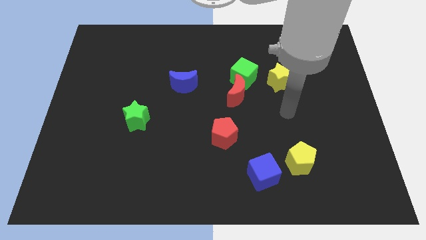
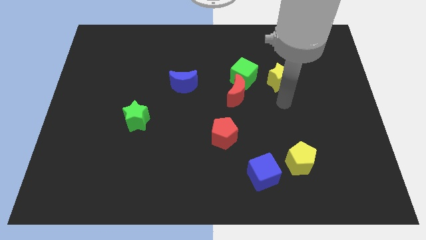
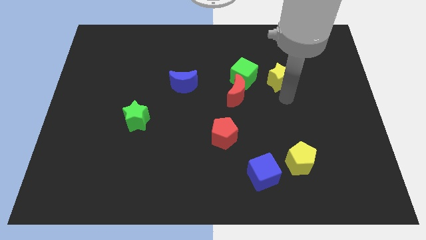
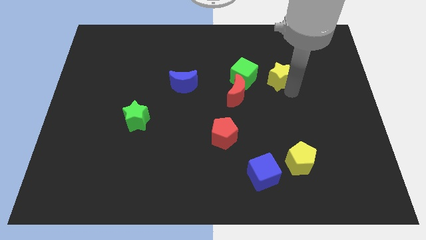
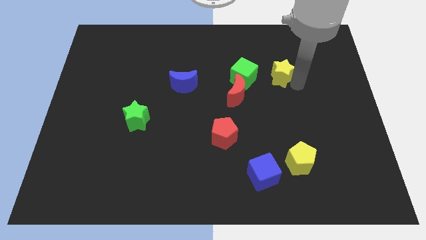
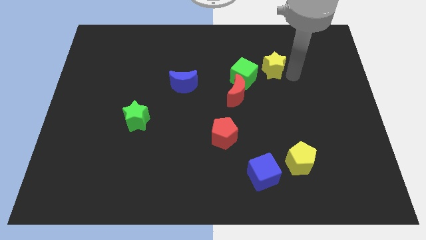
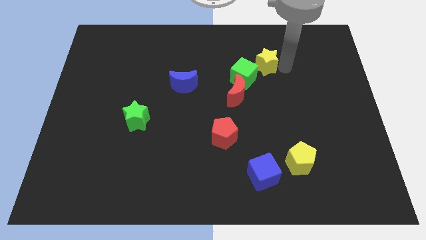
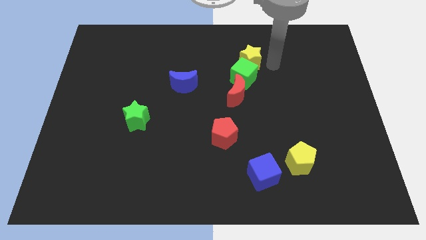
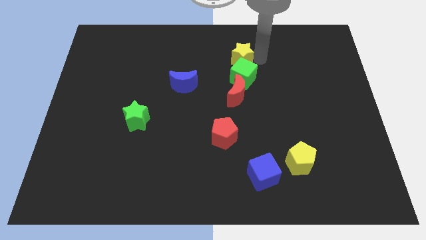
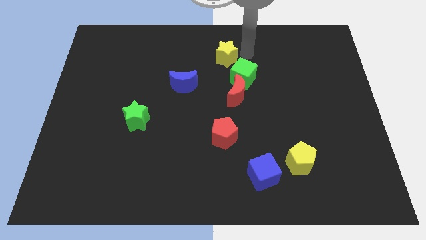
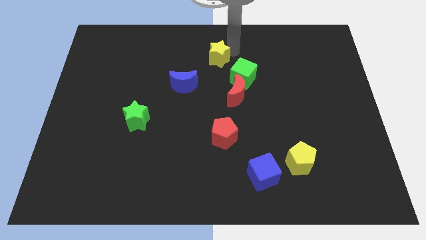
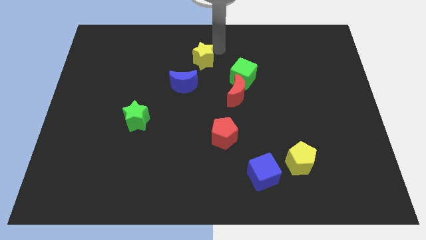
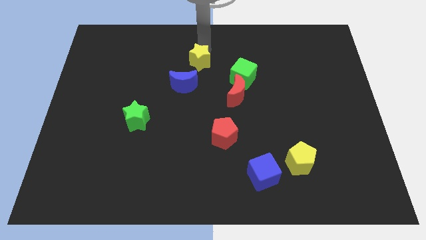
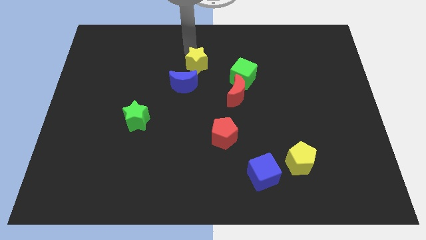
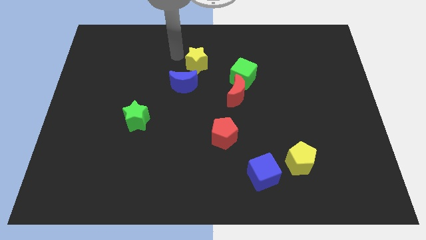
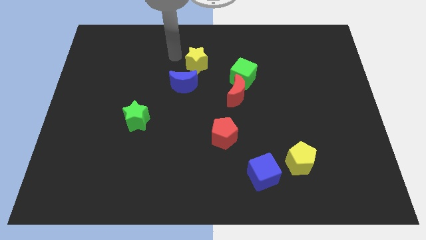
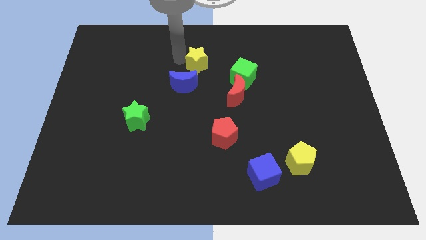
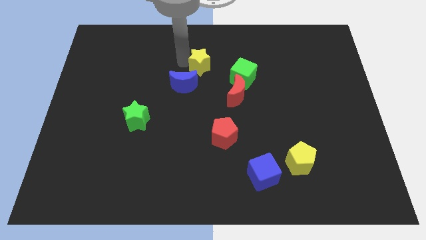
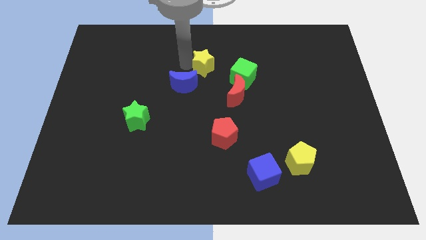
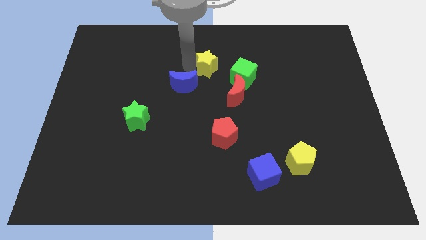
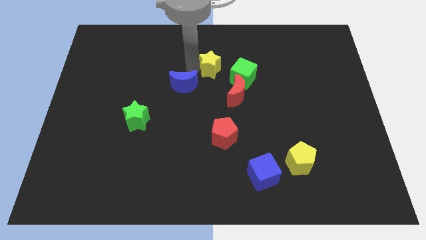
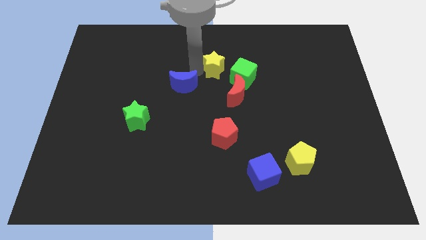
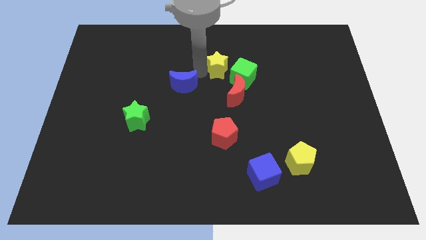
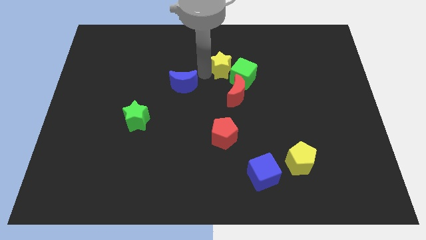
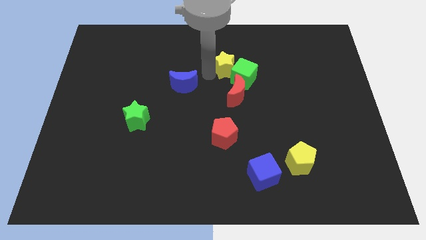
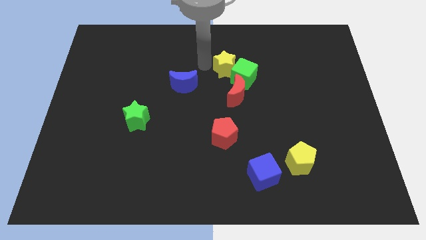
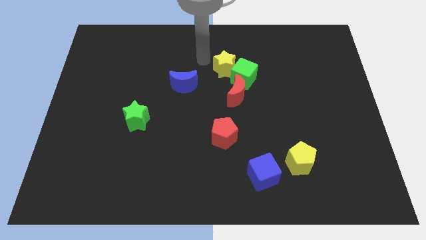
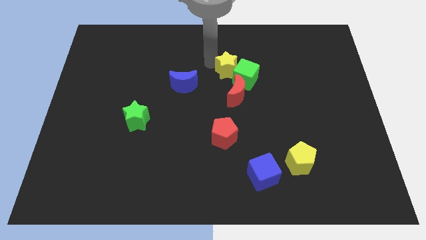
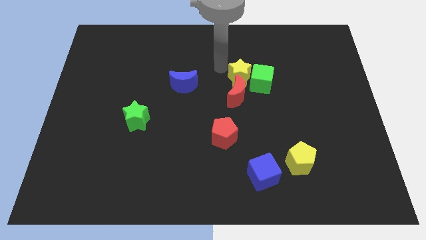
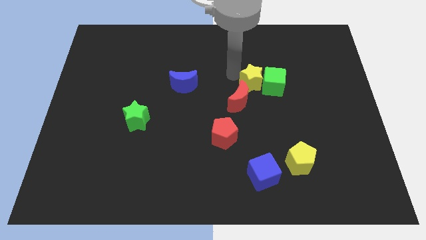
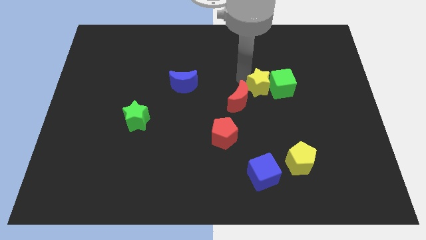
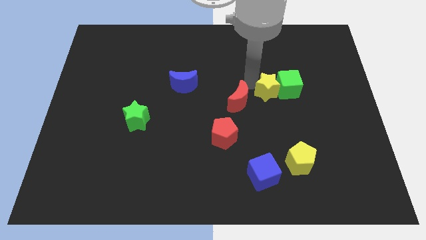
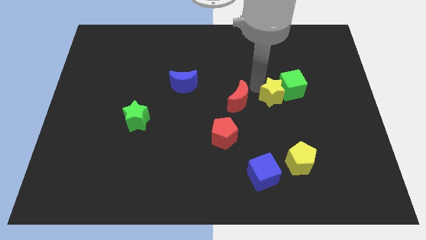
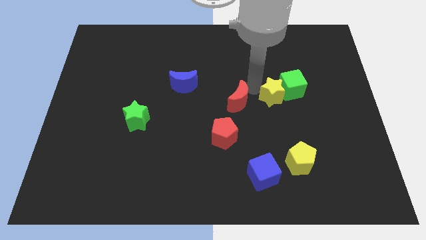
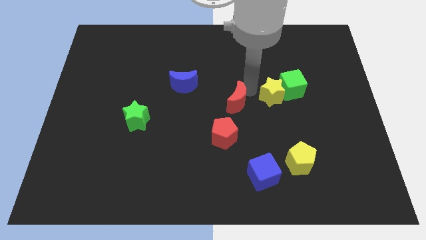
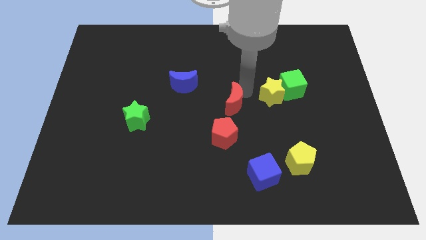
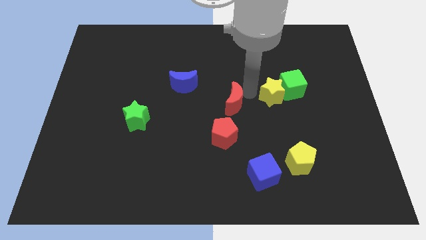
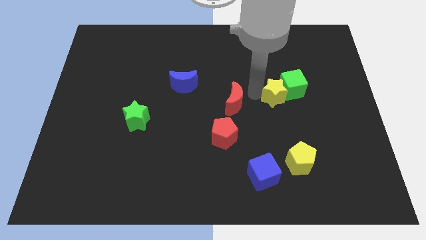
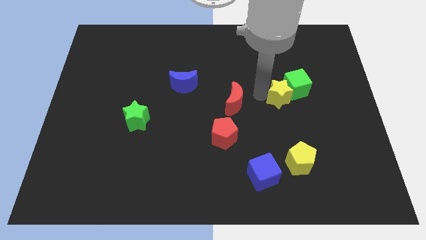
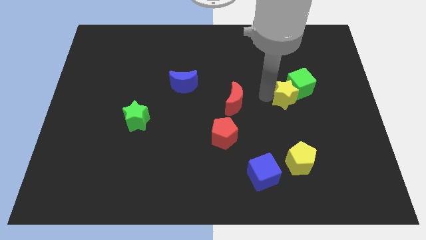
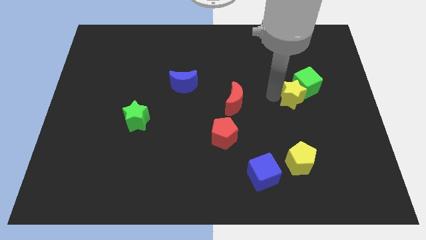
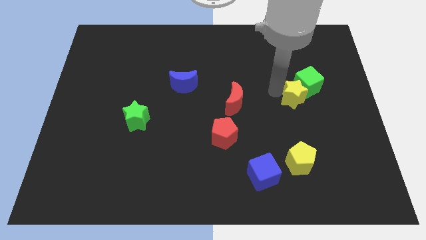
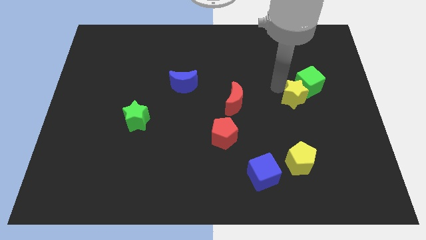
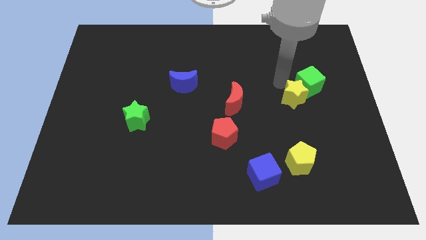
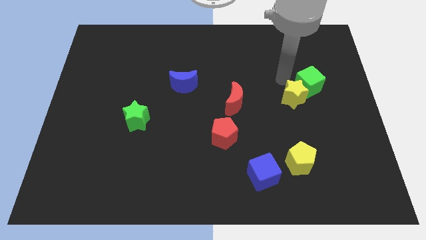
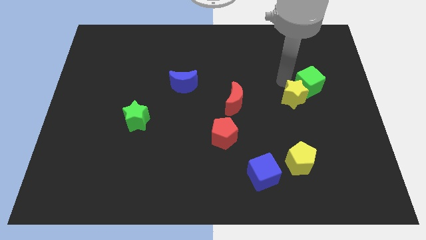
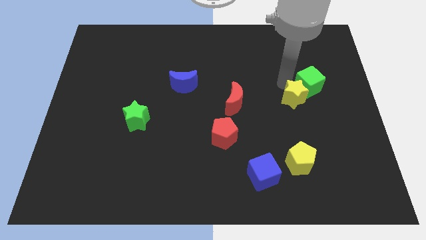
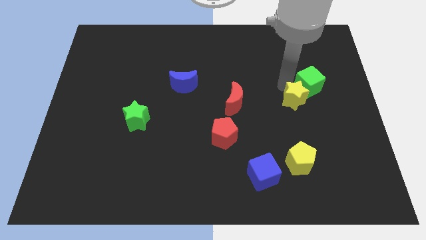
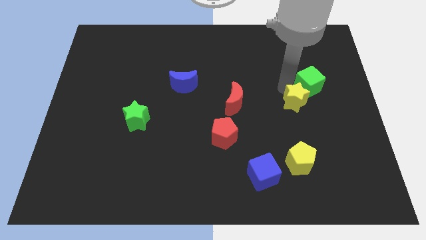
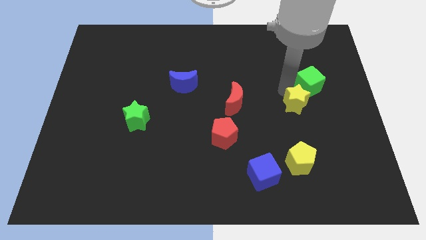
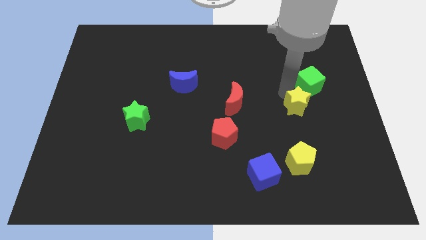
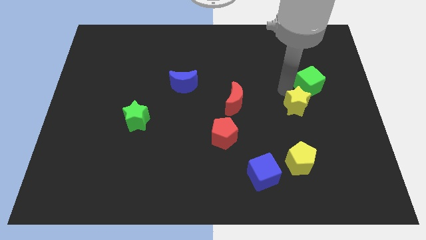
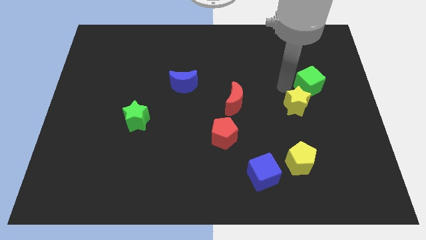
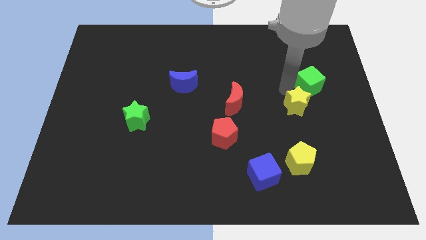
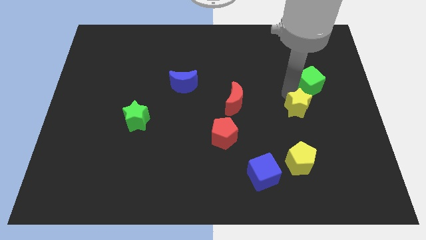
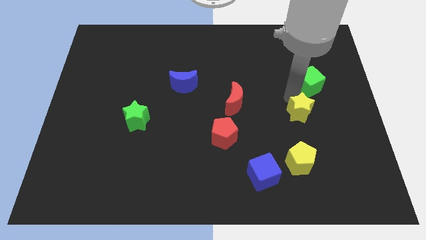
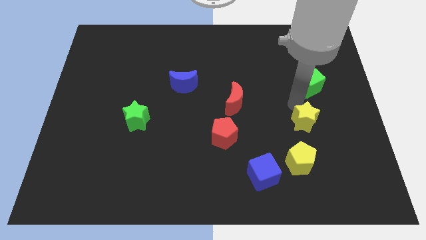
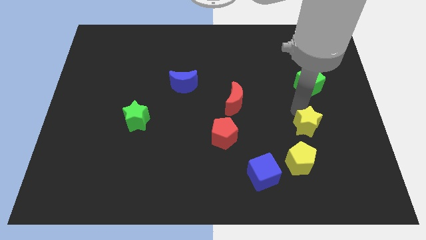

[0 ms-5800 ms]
slide the yellow star diagonally up and to the right of the yellow pentagon

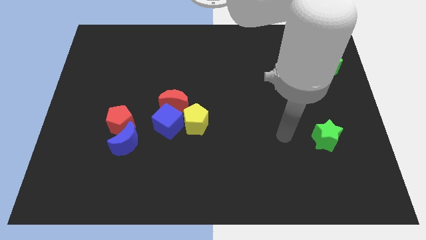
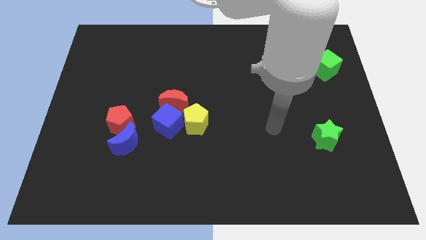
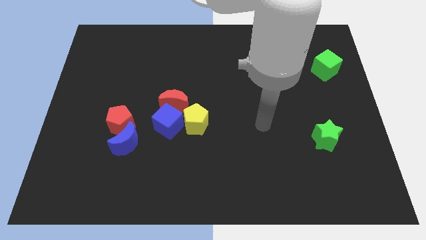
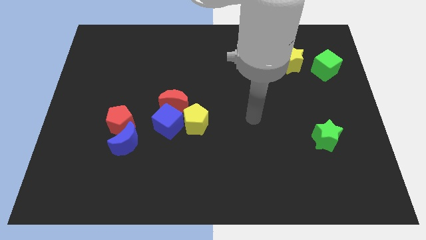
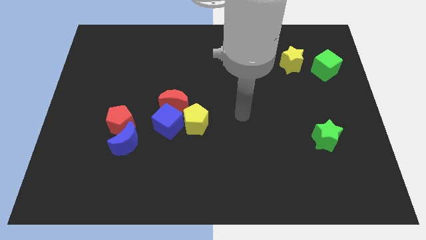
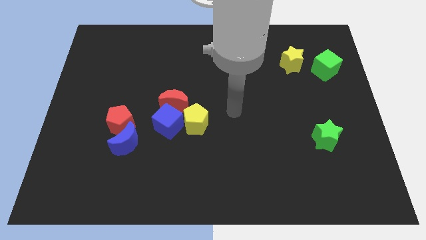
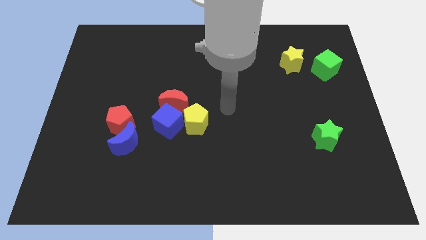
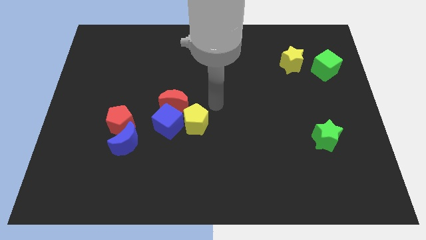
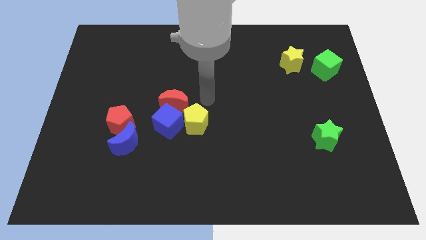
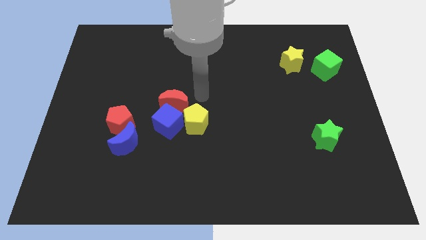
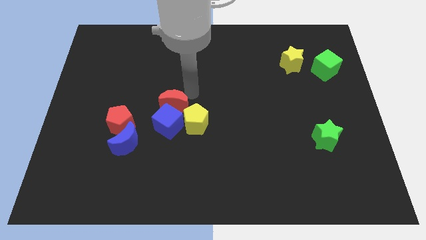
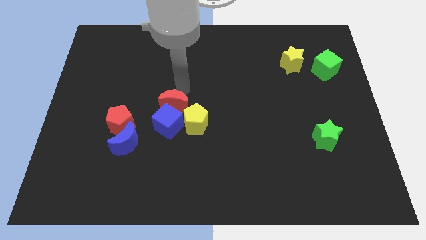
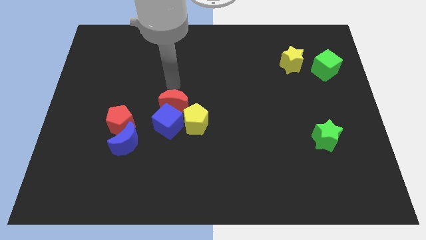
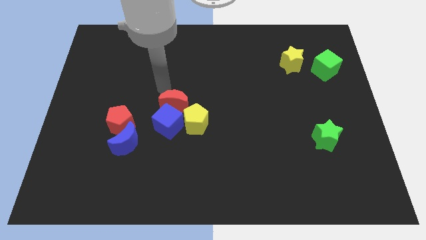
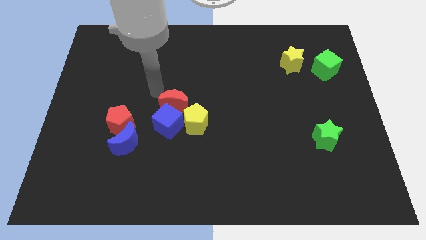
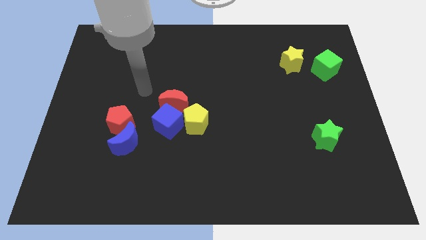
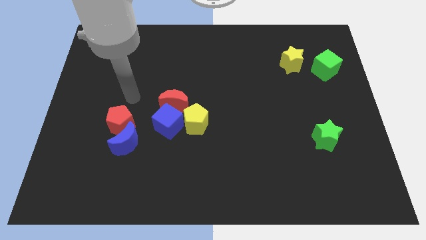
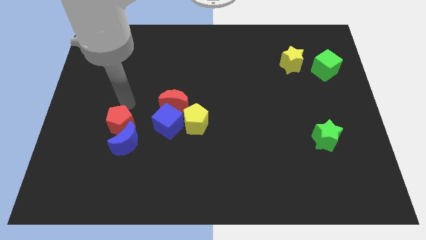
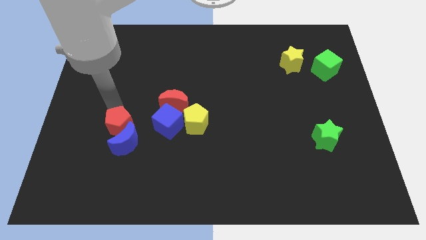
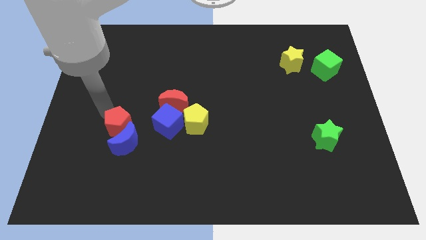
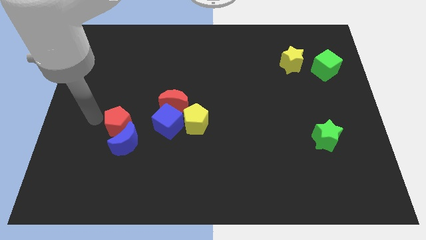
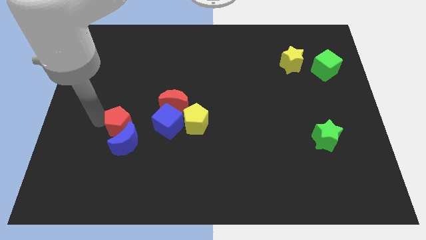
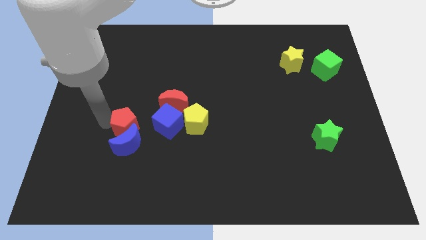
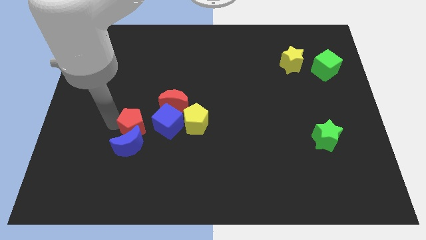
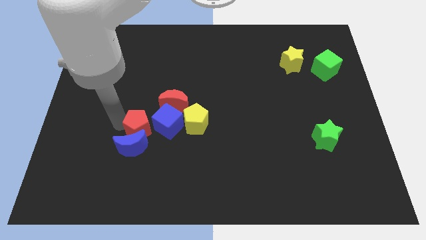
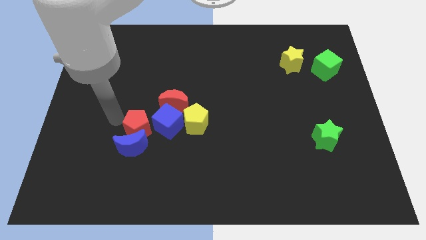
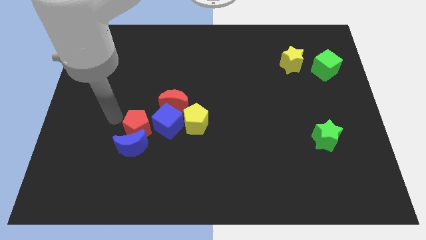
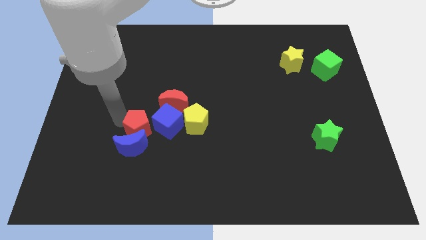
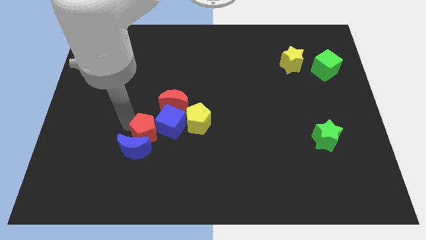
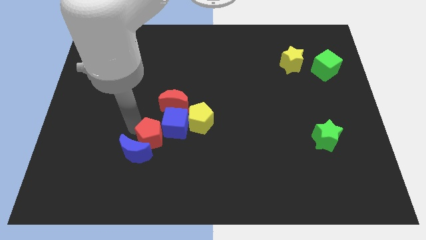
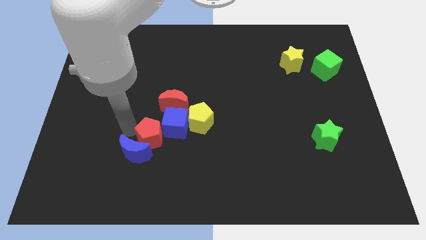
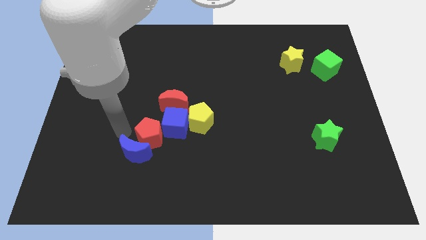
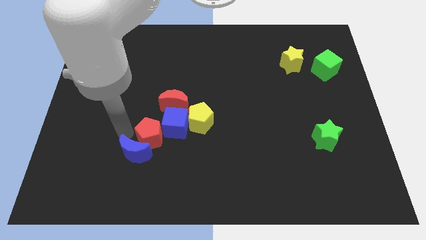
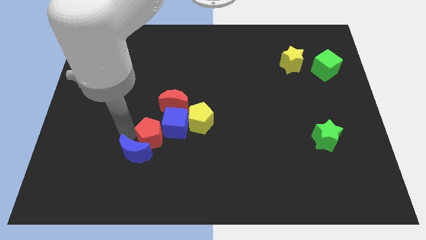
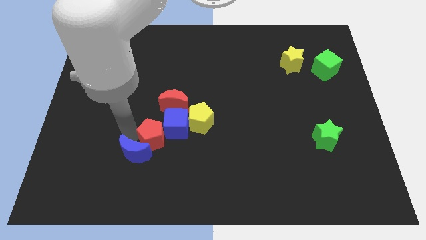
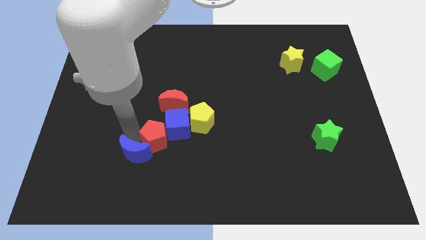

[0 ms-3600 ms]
slide the red pentagon to the bottom left of the yellow pentagon
